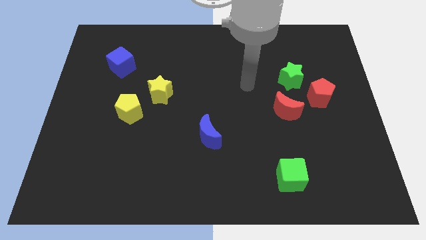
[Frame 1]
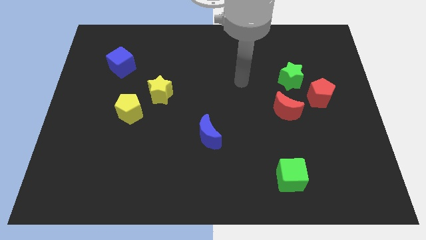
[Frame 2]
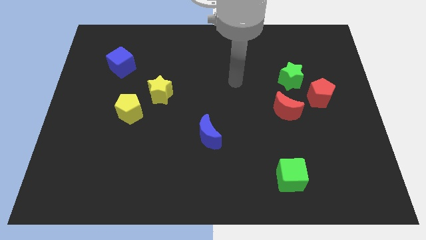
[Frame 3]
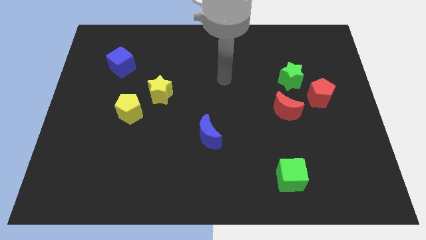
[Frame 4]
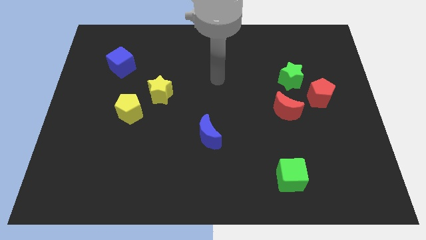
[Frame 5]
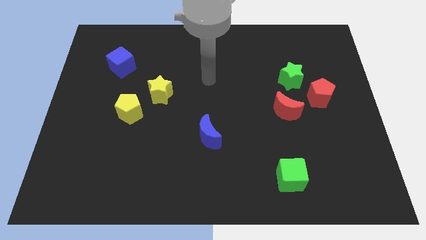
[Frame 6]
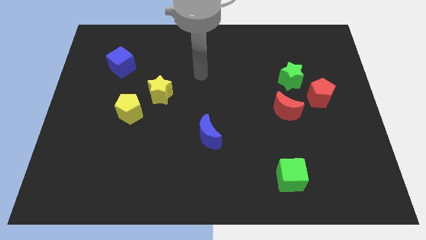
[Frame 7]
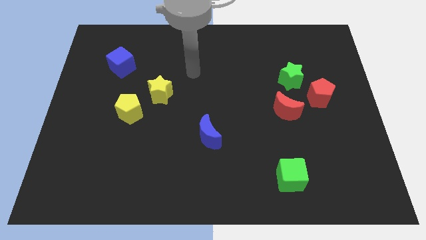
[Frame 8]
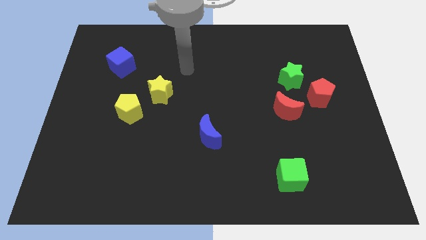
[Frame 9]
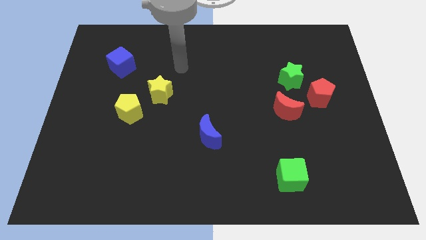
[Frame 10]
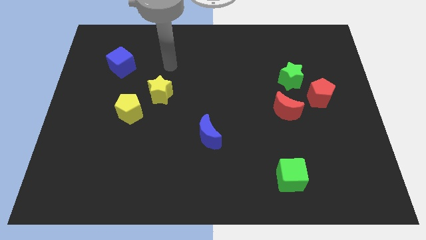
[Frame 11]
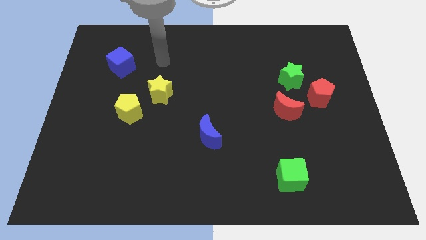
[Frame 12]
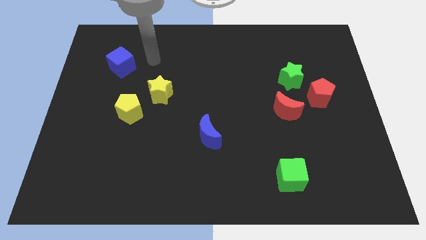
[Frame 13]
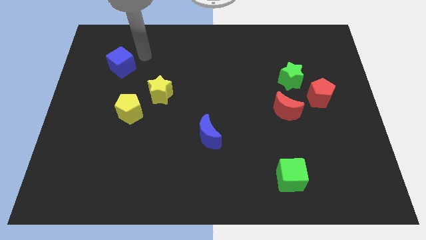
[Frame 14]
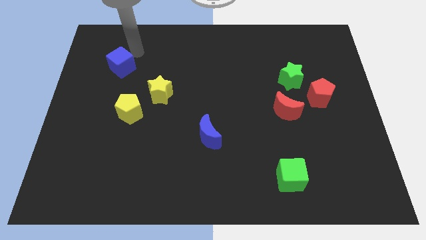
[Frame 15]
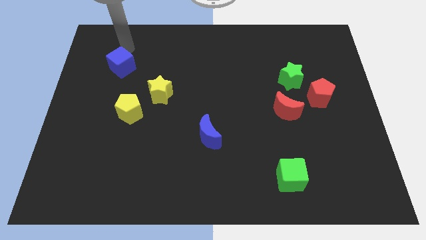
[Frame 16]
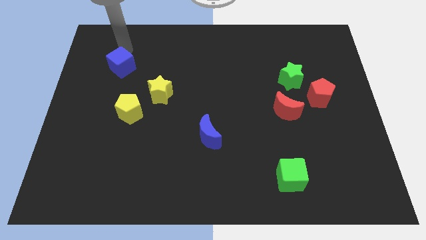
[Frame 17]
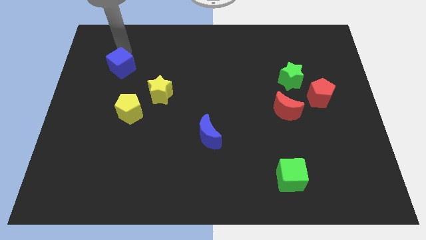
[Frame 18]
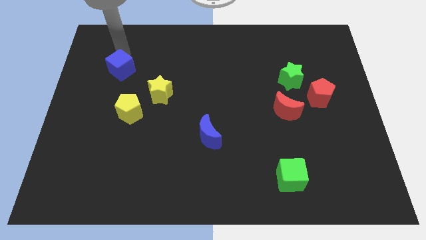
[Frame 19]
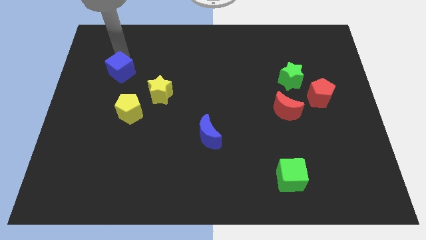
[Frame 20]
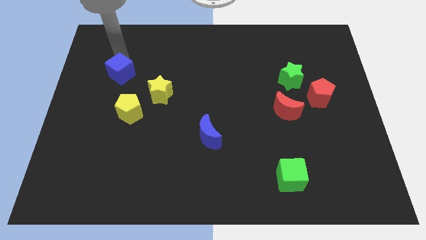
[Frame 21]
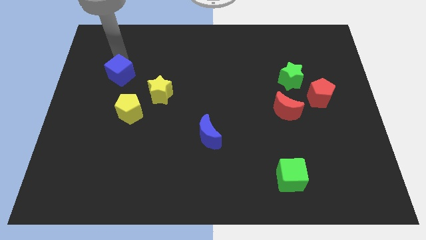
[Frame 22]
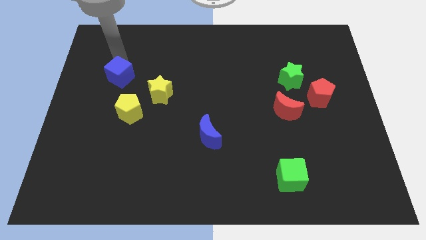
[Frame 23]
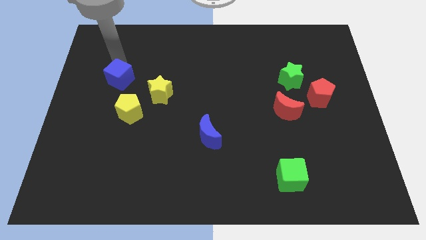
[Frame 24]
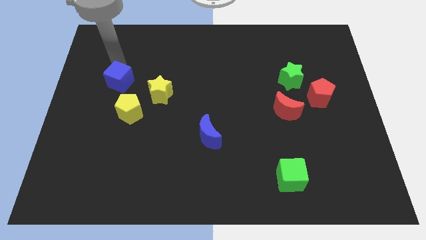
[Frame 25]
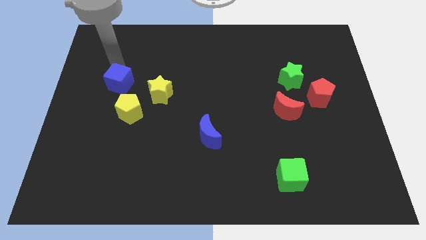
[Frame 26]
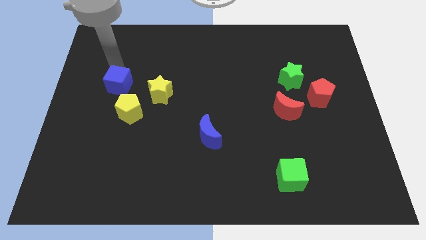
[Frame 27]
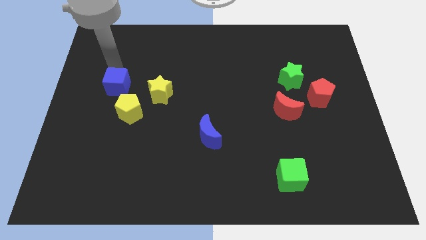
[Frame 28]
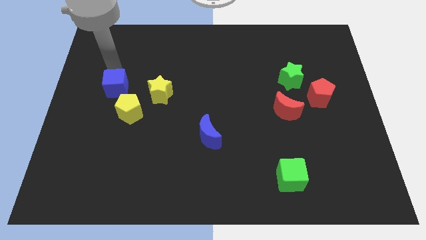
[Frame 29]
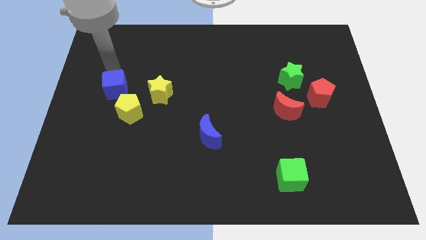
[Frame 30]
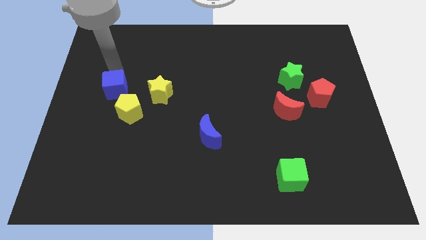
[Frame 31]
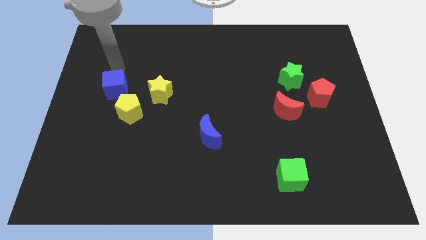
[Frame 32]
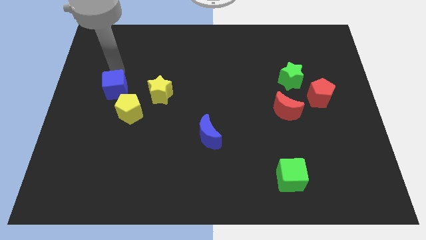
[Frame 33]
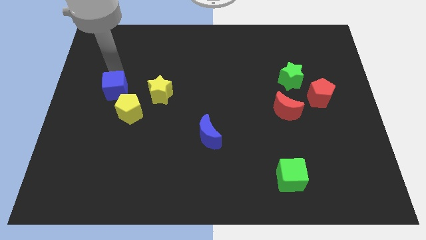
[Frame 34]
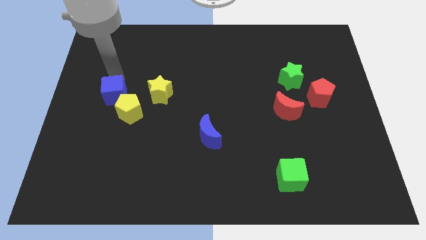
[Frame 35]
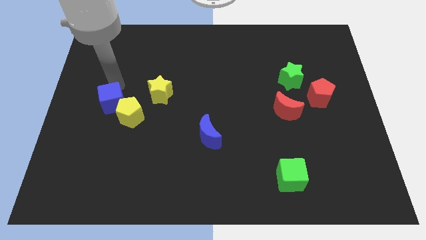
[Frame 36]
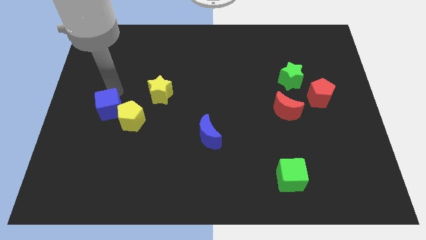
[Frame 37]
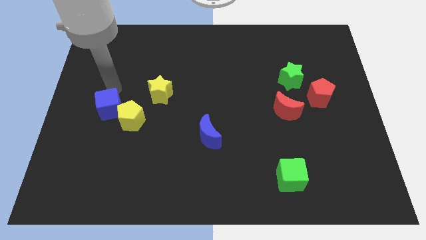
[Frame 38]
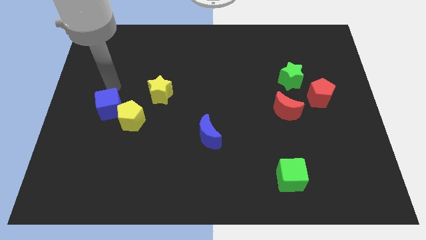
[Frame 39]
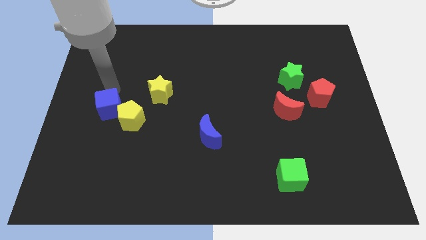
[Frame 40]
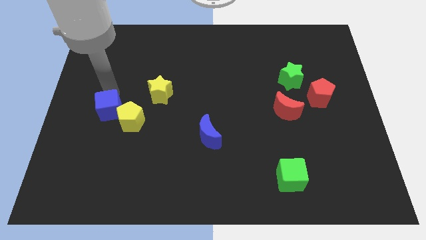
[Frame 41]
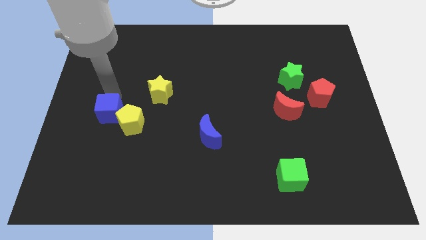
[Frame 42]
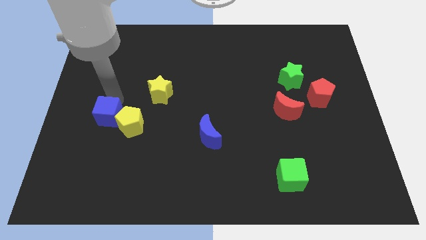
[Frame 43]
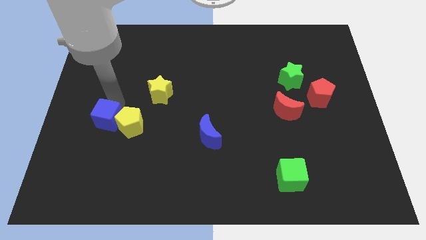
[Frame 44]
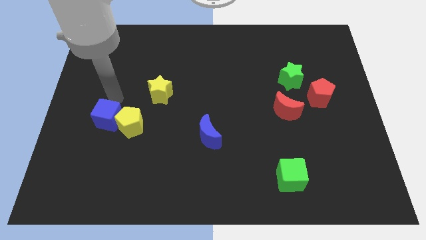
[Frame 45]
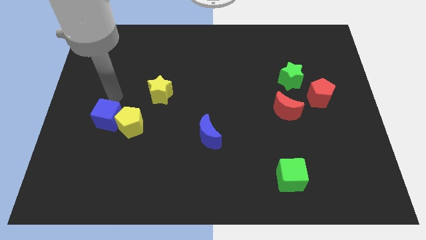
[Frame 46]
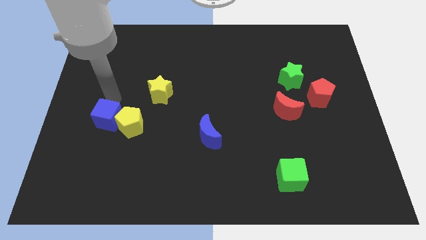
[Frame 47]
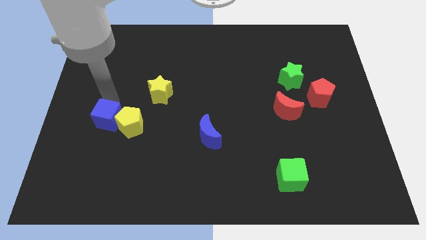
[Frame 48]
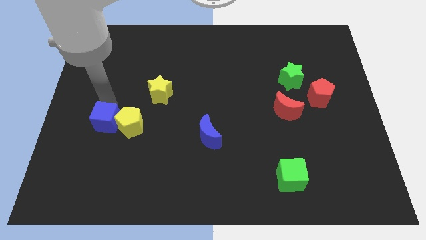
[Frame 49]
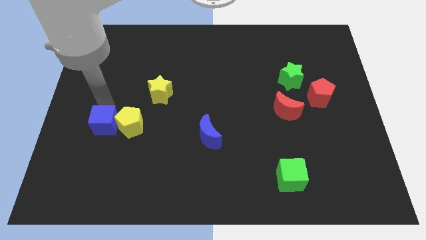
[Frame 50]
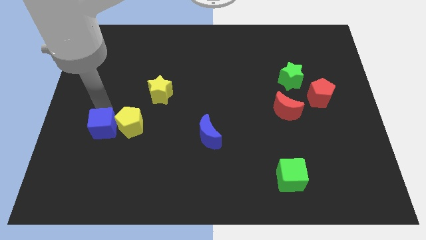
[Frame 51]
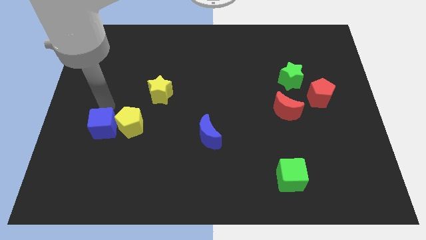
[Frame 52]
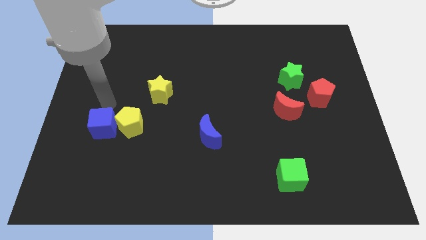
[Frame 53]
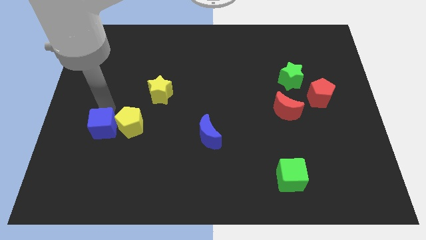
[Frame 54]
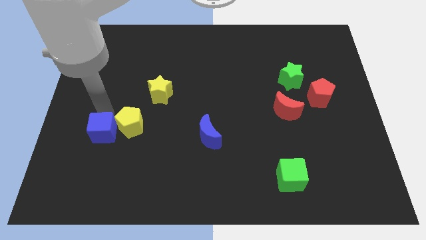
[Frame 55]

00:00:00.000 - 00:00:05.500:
push the blue cube down

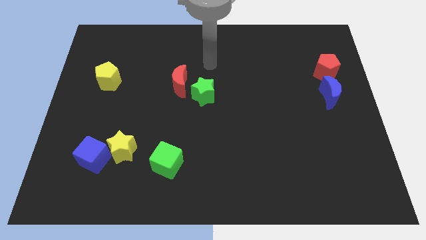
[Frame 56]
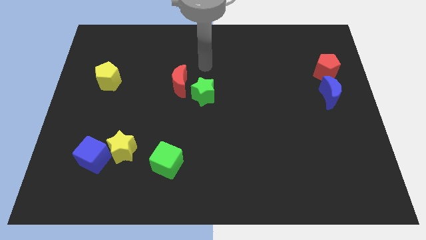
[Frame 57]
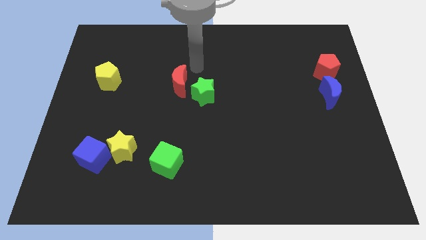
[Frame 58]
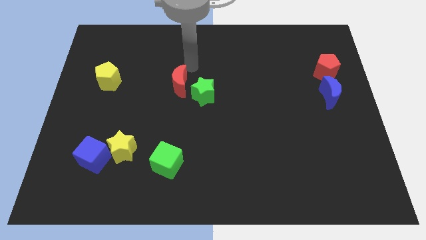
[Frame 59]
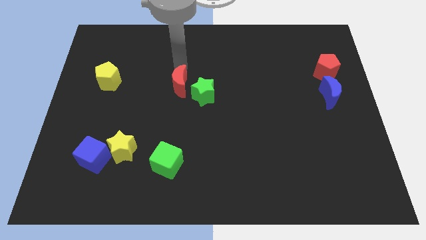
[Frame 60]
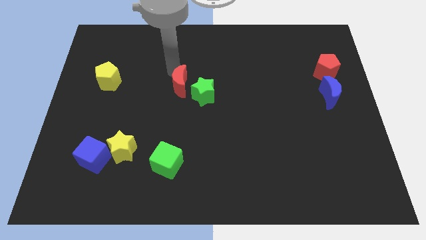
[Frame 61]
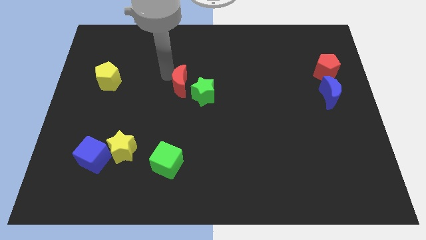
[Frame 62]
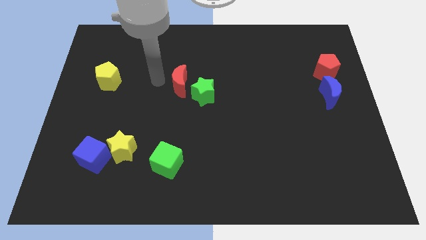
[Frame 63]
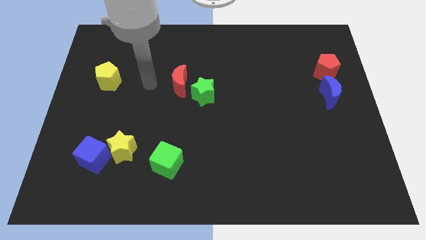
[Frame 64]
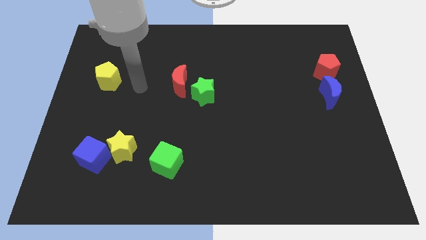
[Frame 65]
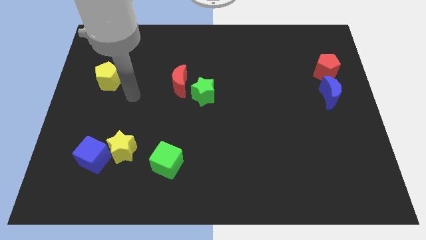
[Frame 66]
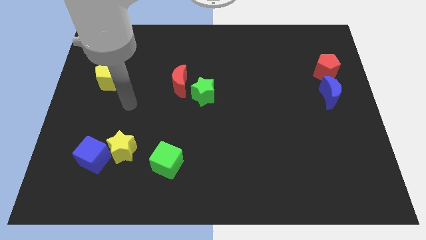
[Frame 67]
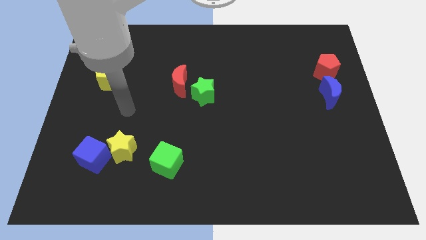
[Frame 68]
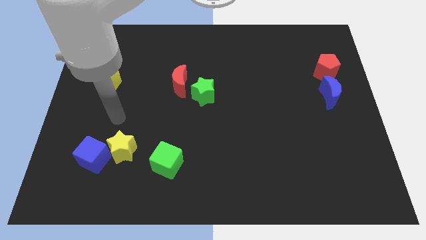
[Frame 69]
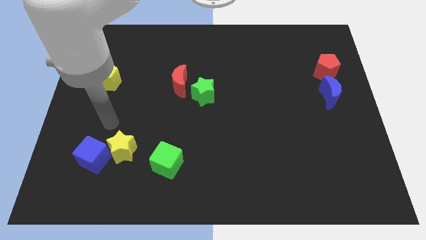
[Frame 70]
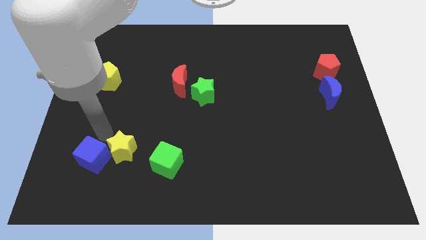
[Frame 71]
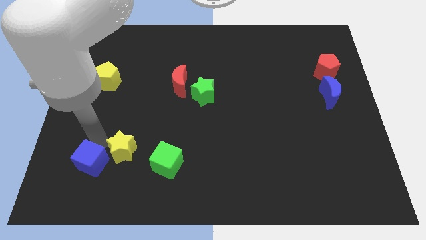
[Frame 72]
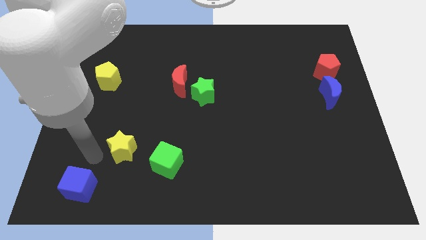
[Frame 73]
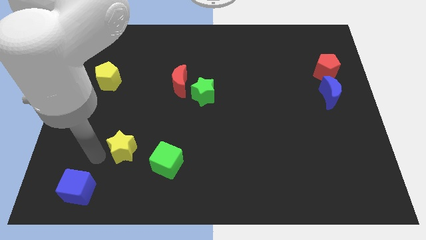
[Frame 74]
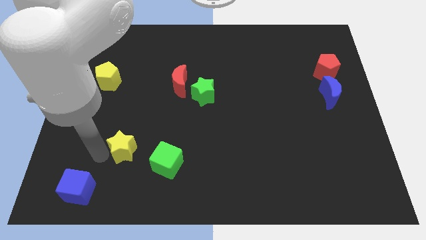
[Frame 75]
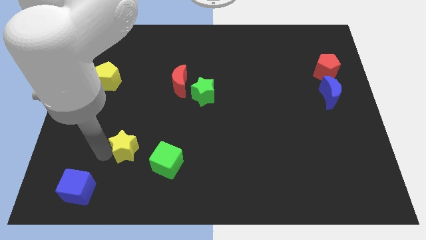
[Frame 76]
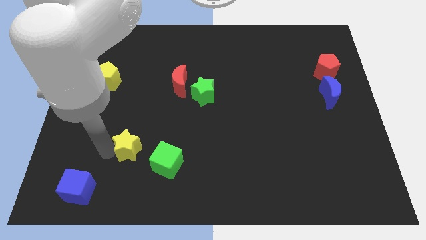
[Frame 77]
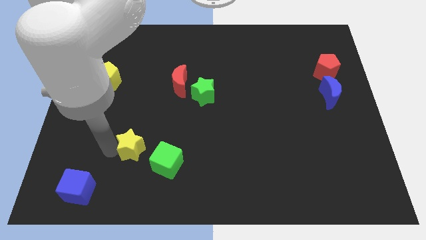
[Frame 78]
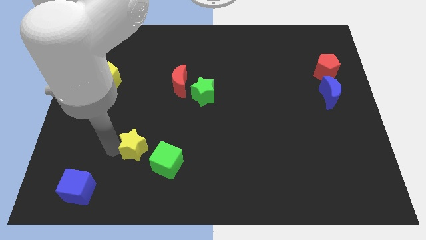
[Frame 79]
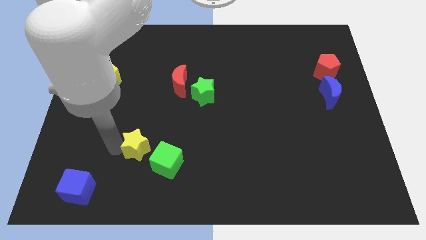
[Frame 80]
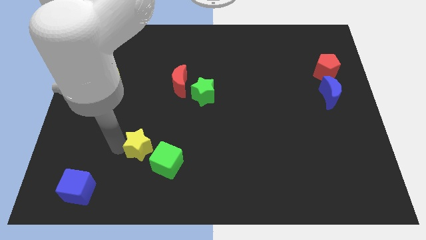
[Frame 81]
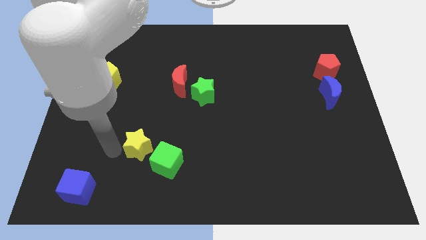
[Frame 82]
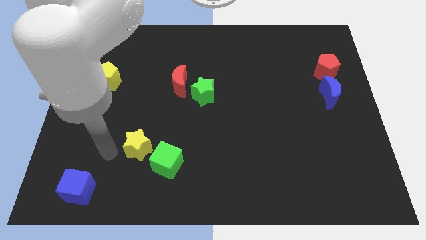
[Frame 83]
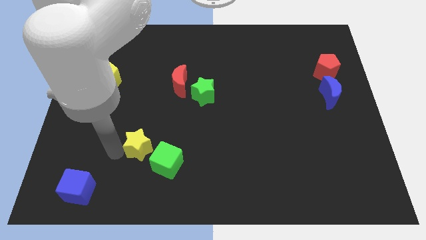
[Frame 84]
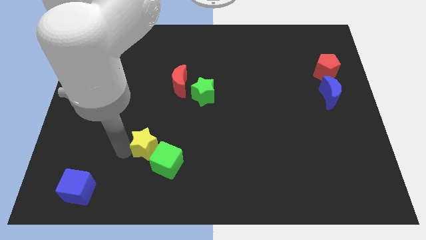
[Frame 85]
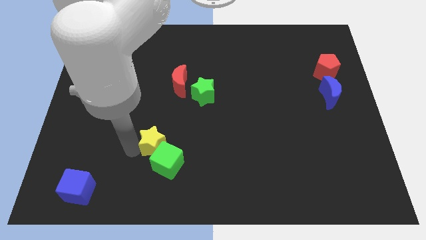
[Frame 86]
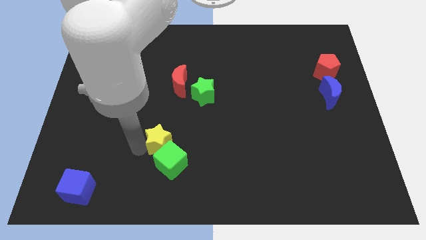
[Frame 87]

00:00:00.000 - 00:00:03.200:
push the yellow star right a little bit
